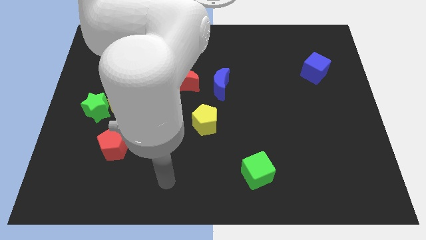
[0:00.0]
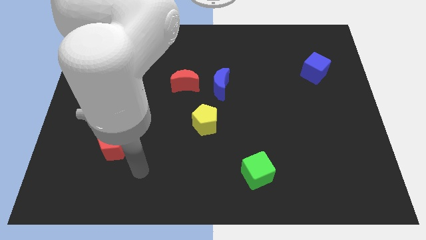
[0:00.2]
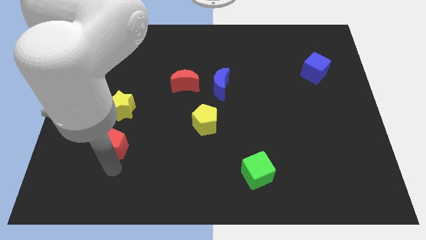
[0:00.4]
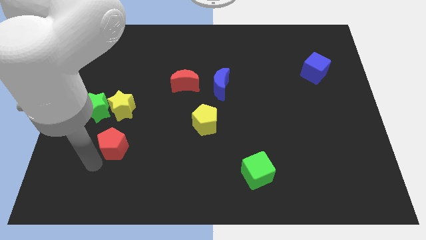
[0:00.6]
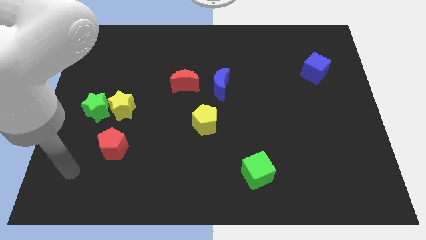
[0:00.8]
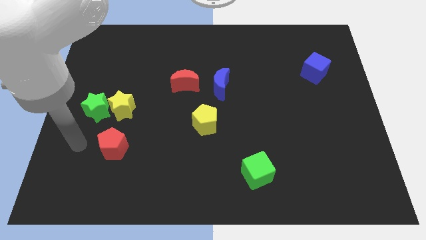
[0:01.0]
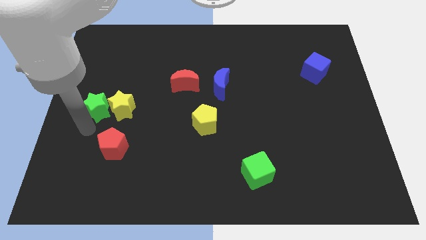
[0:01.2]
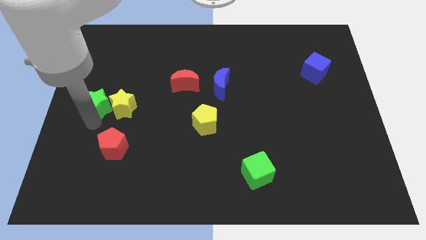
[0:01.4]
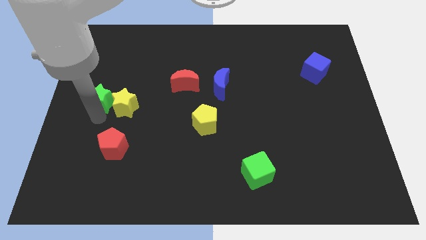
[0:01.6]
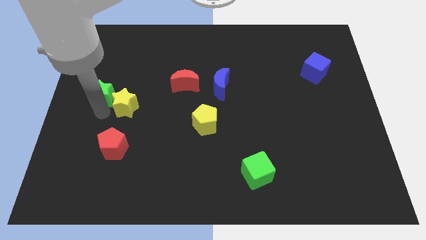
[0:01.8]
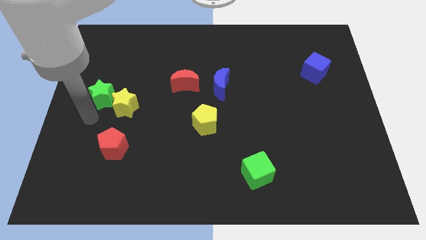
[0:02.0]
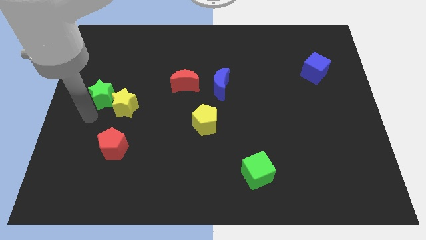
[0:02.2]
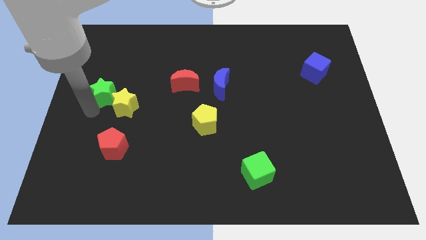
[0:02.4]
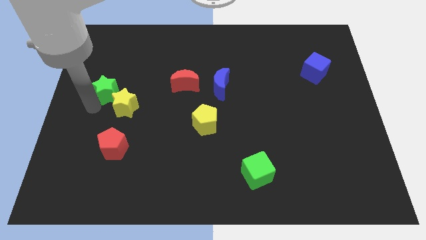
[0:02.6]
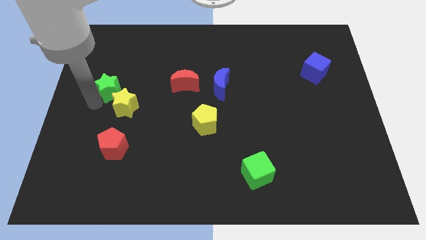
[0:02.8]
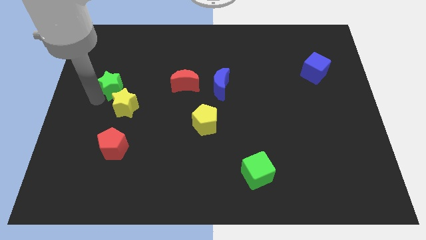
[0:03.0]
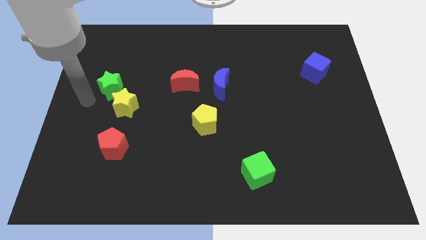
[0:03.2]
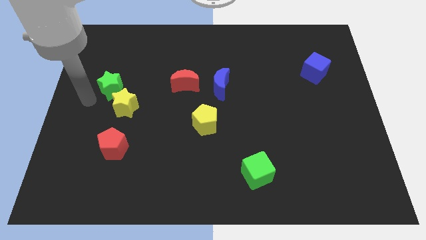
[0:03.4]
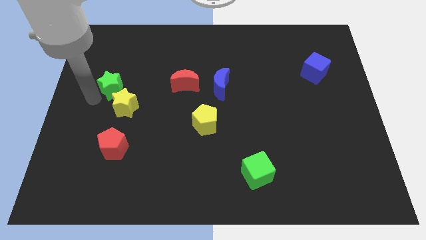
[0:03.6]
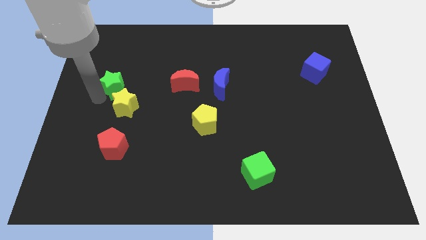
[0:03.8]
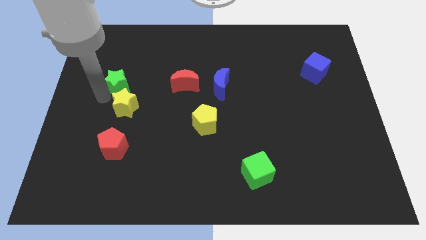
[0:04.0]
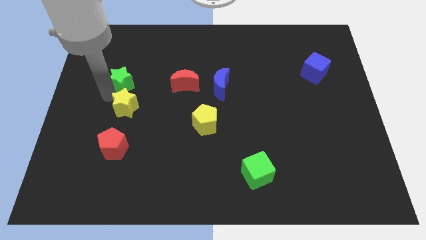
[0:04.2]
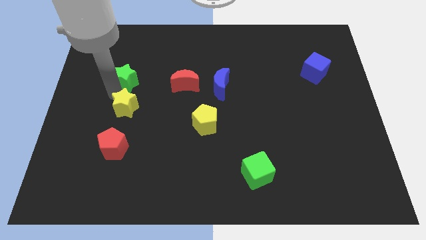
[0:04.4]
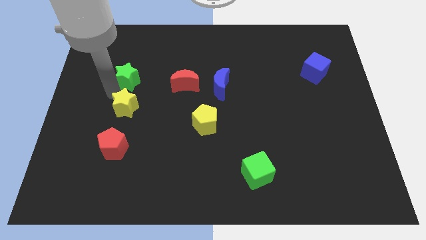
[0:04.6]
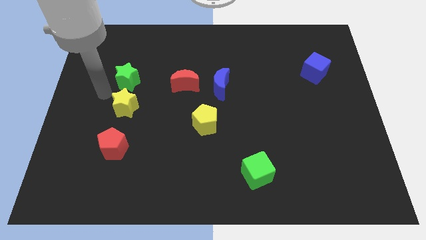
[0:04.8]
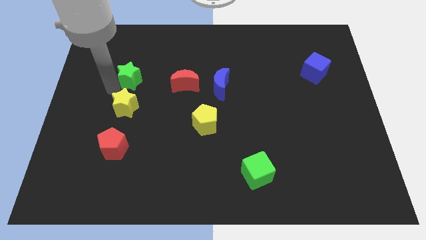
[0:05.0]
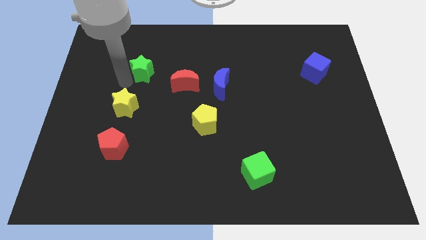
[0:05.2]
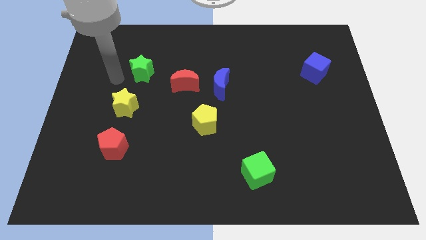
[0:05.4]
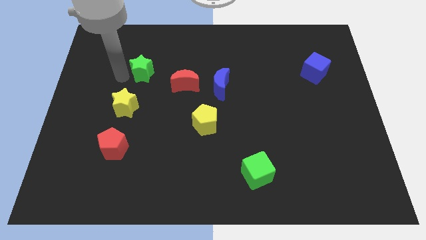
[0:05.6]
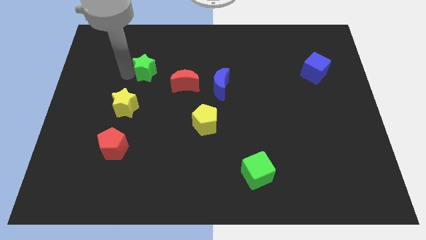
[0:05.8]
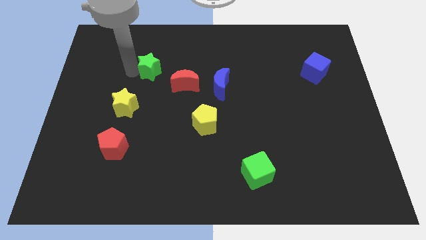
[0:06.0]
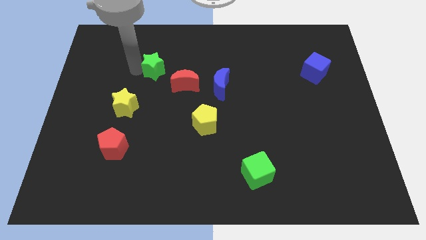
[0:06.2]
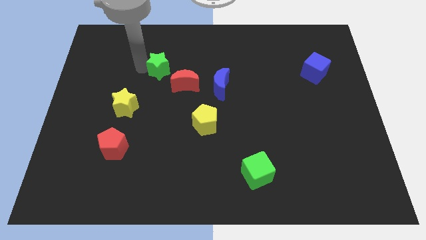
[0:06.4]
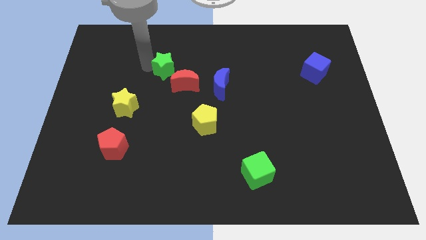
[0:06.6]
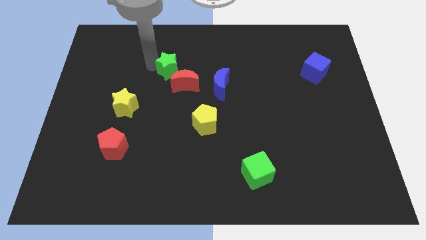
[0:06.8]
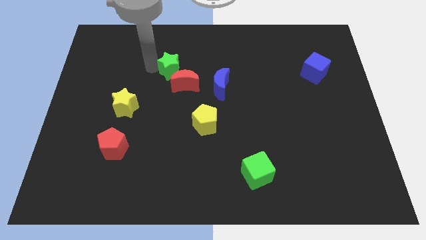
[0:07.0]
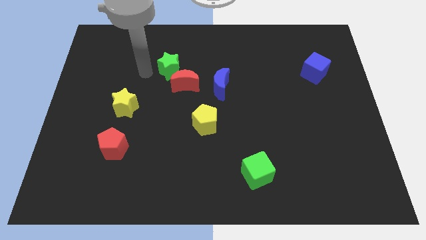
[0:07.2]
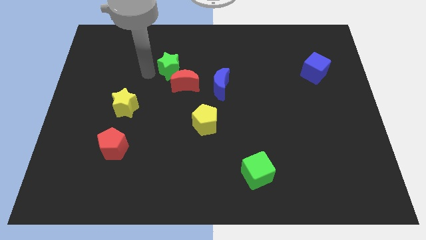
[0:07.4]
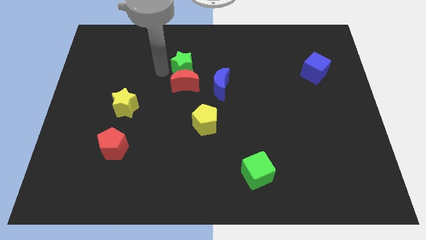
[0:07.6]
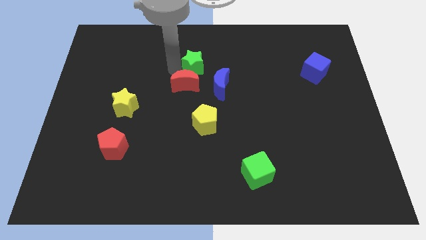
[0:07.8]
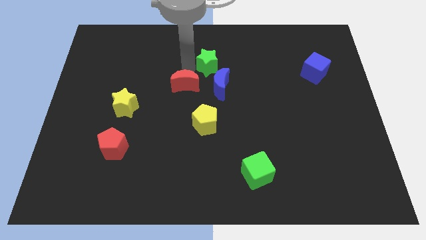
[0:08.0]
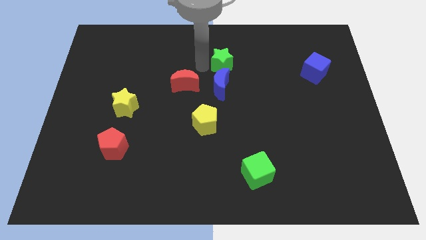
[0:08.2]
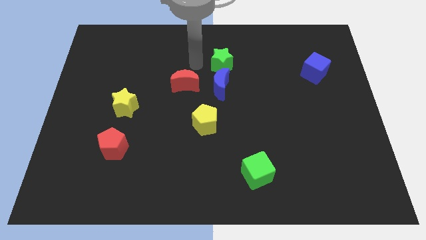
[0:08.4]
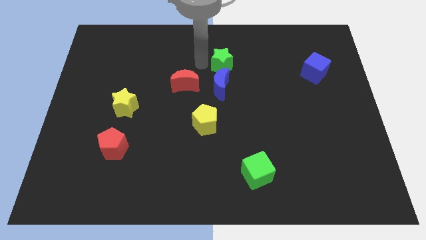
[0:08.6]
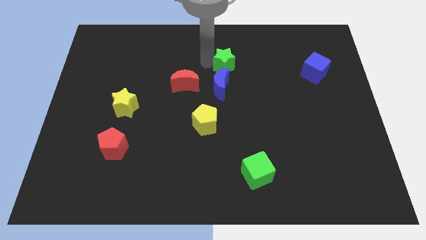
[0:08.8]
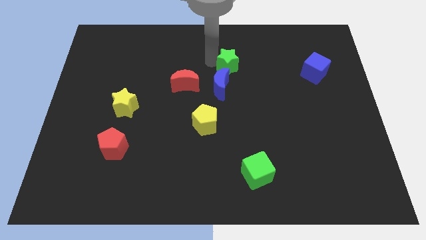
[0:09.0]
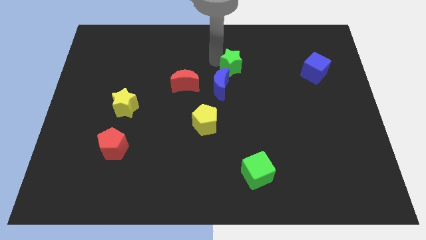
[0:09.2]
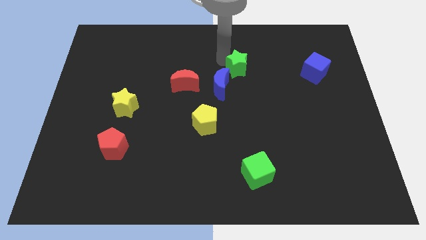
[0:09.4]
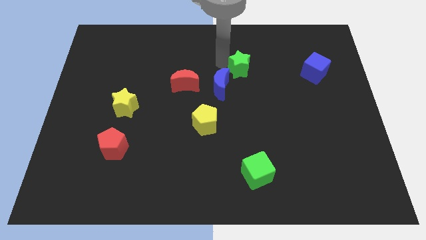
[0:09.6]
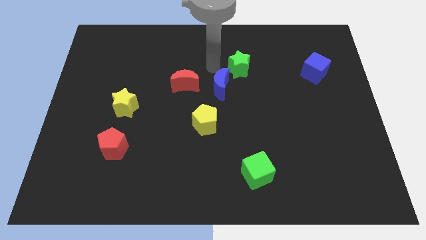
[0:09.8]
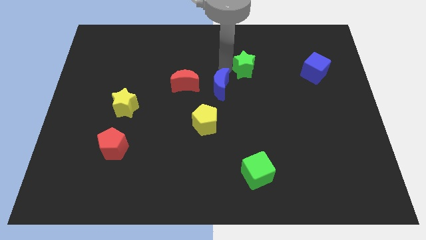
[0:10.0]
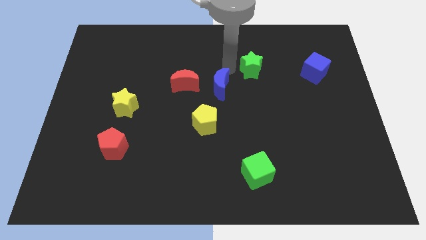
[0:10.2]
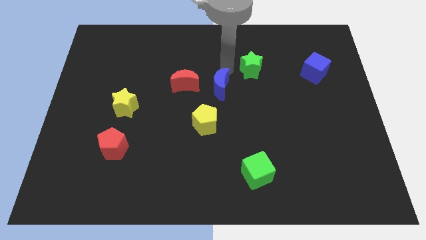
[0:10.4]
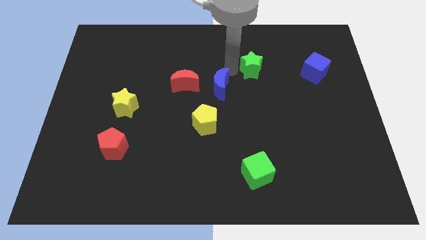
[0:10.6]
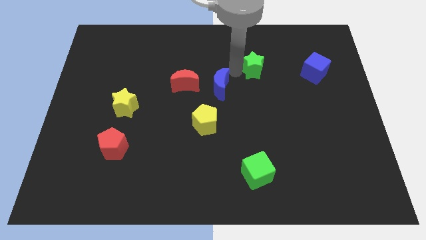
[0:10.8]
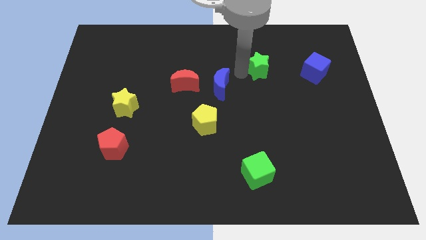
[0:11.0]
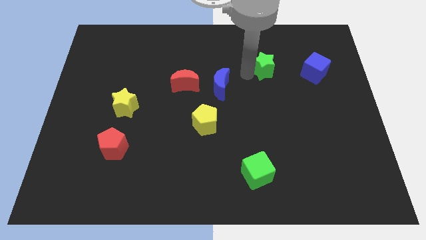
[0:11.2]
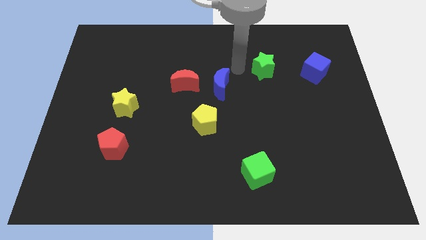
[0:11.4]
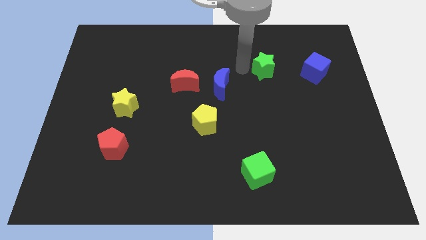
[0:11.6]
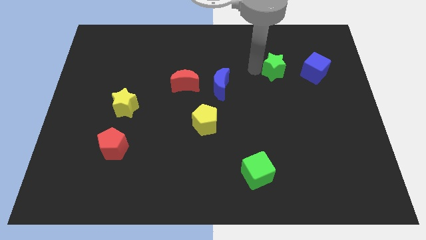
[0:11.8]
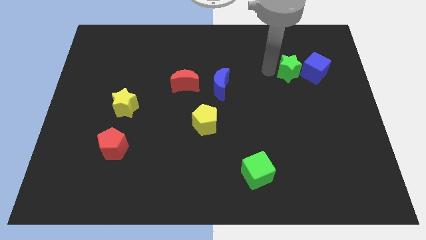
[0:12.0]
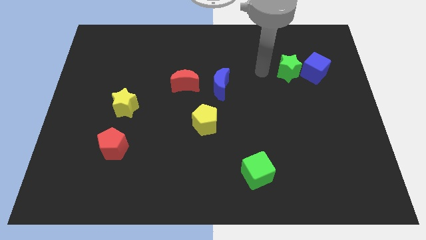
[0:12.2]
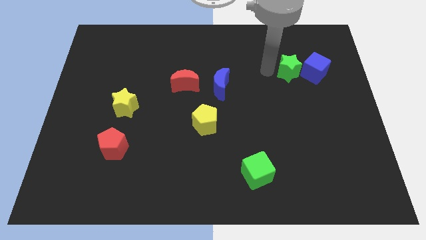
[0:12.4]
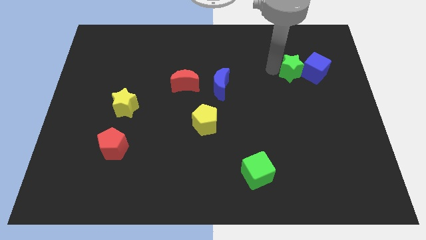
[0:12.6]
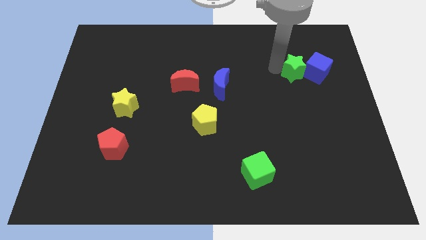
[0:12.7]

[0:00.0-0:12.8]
slide the green star to the blue cube
